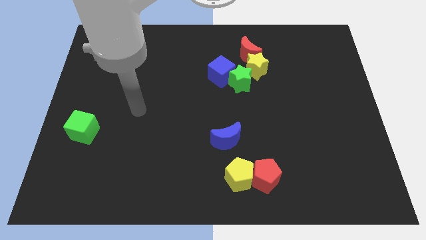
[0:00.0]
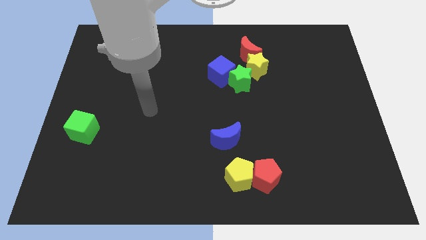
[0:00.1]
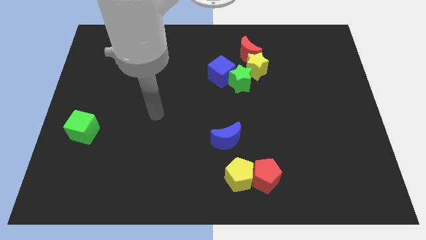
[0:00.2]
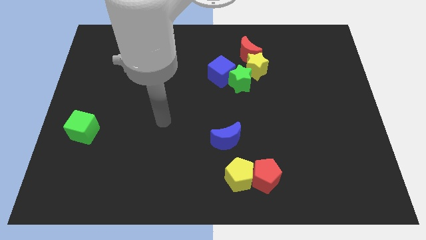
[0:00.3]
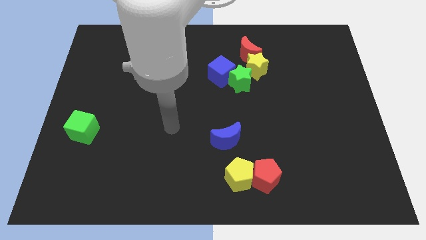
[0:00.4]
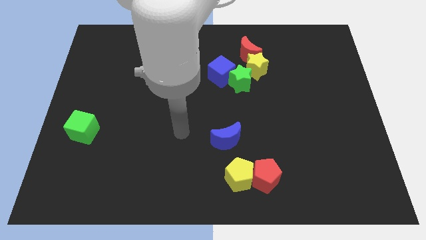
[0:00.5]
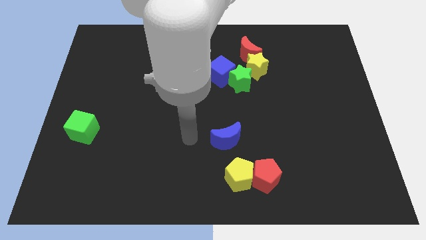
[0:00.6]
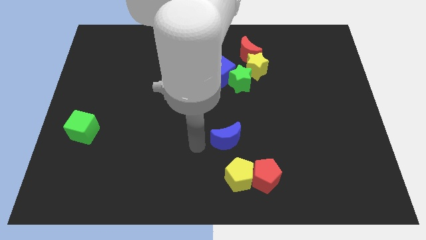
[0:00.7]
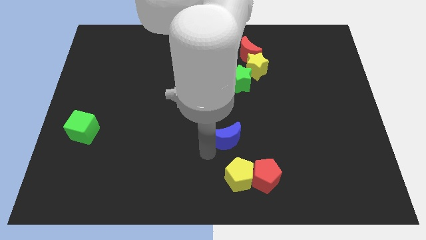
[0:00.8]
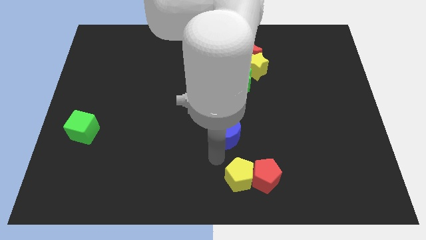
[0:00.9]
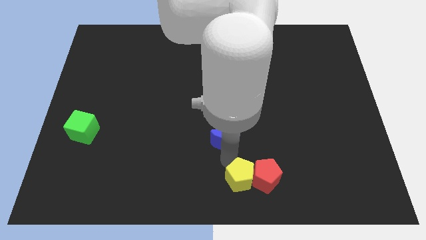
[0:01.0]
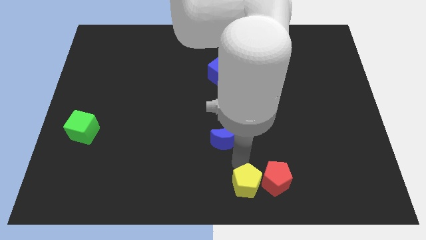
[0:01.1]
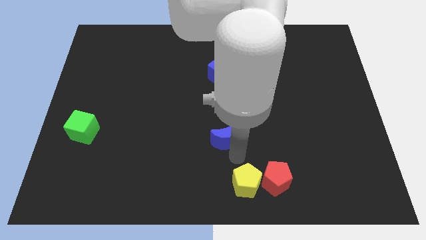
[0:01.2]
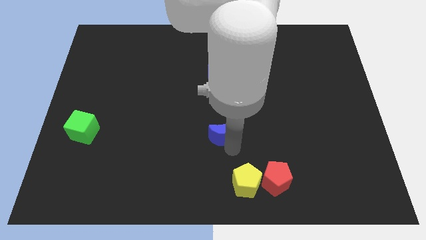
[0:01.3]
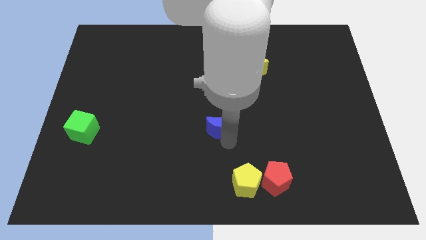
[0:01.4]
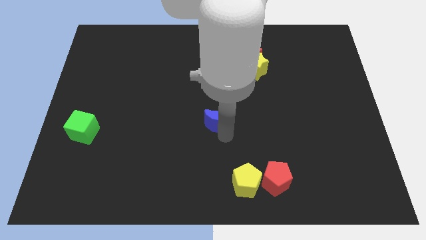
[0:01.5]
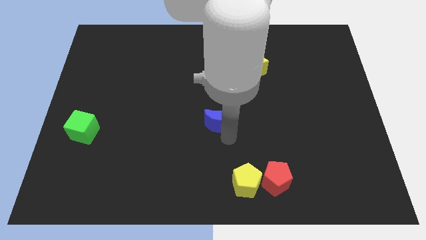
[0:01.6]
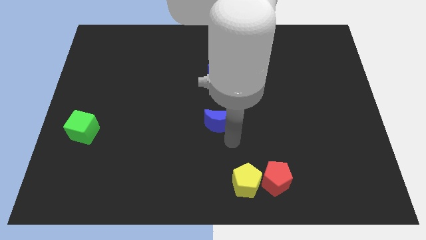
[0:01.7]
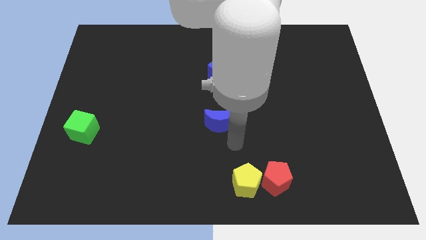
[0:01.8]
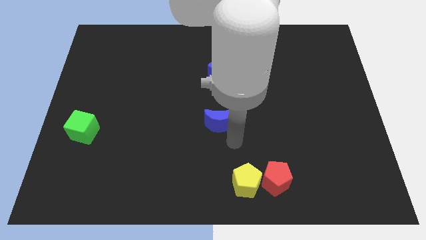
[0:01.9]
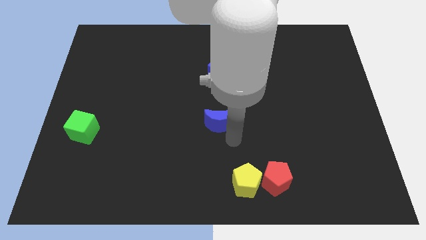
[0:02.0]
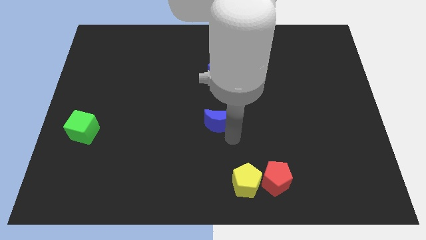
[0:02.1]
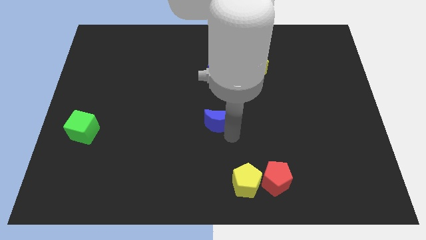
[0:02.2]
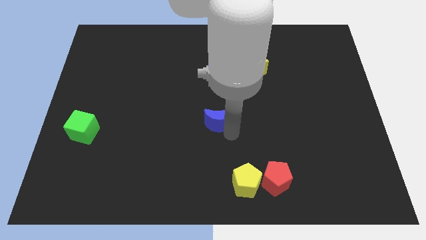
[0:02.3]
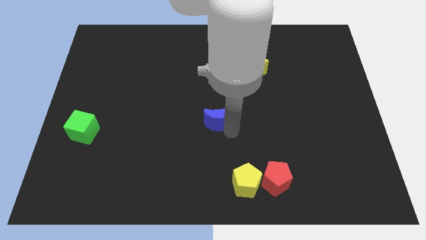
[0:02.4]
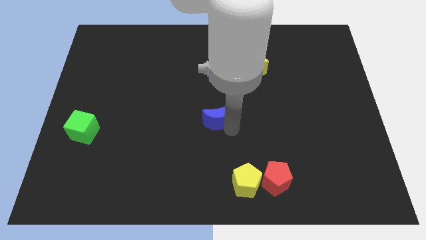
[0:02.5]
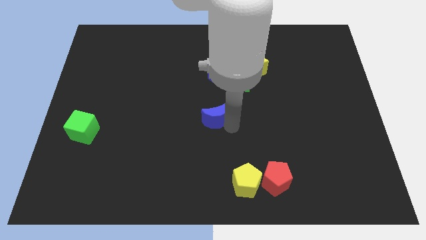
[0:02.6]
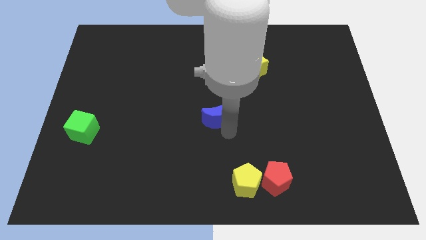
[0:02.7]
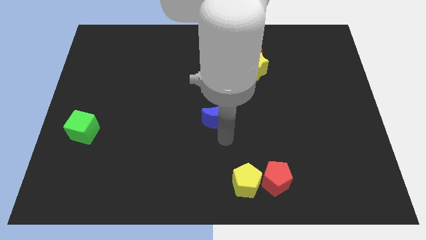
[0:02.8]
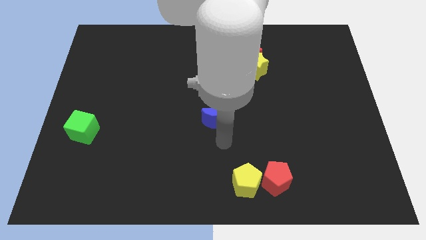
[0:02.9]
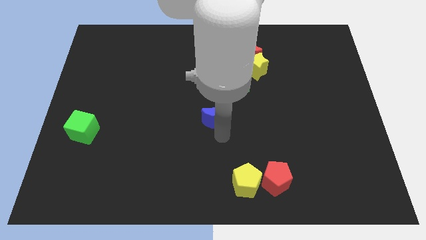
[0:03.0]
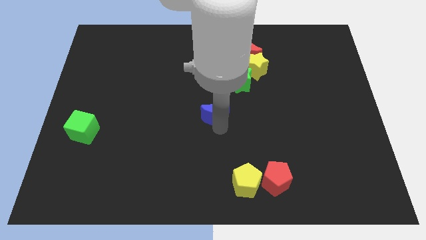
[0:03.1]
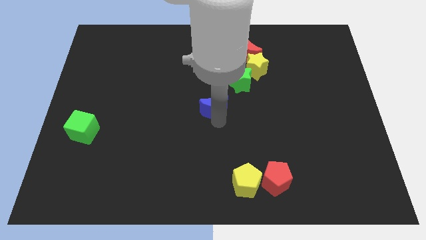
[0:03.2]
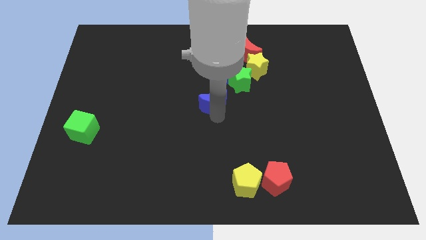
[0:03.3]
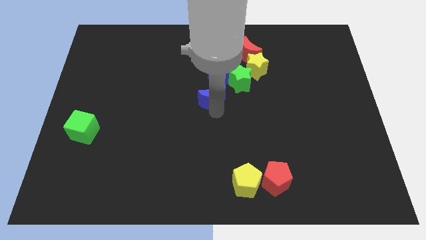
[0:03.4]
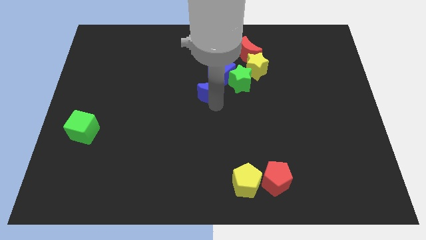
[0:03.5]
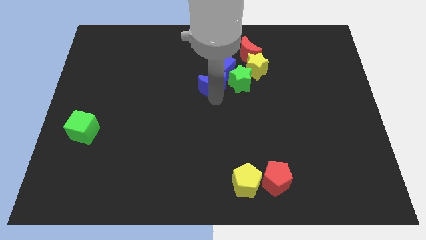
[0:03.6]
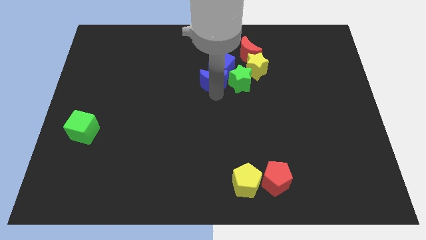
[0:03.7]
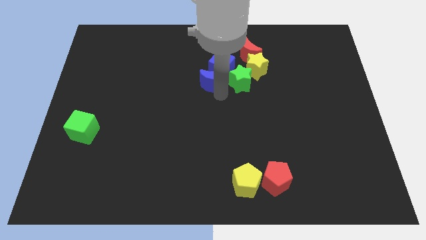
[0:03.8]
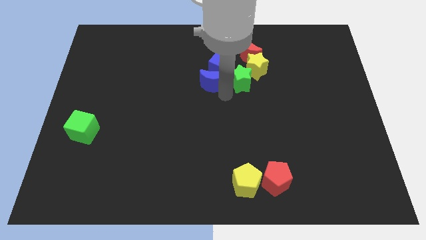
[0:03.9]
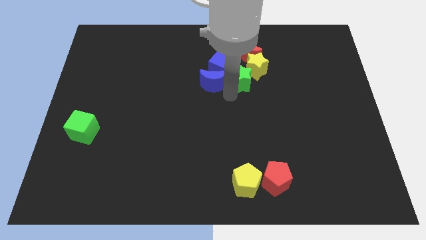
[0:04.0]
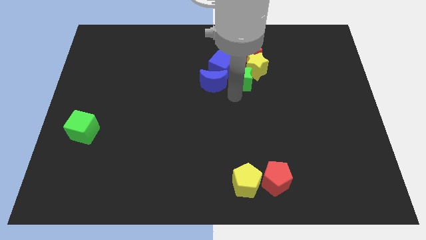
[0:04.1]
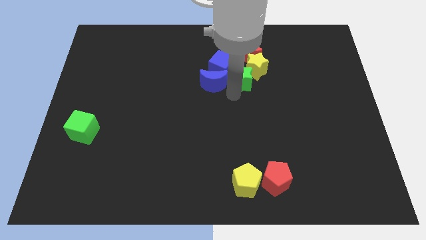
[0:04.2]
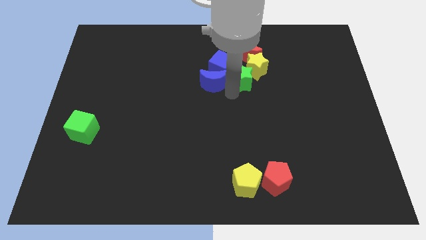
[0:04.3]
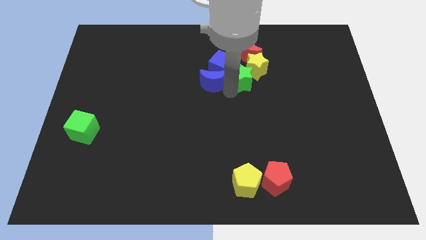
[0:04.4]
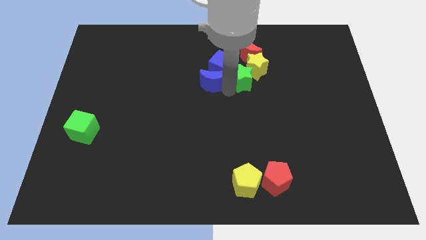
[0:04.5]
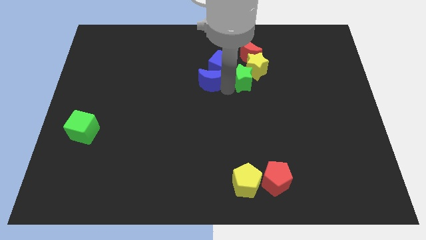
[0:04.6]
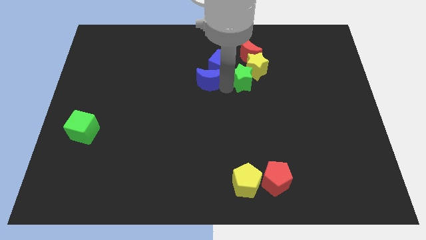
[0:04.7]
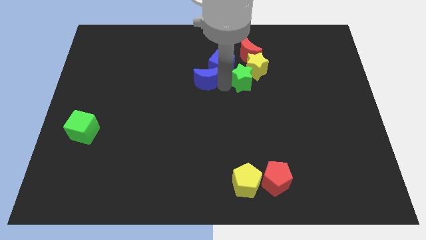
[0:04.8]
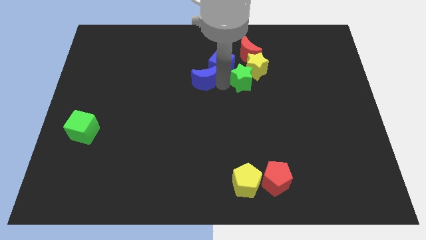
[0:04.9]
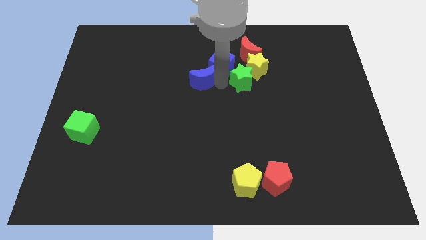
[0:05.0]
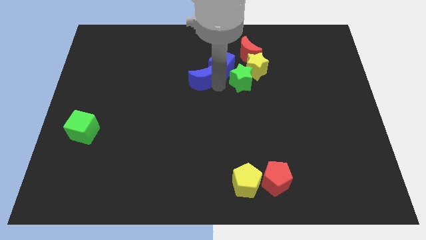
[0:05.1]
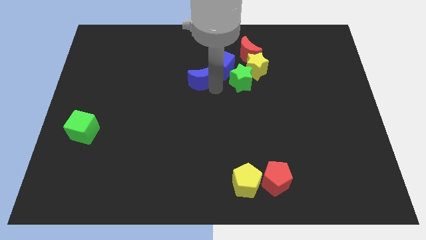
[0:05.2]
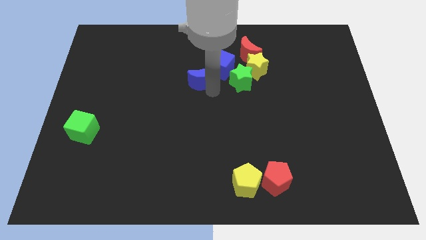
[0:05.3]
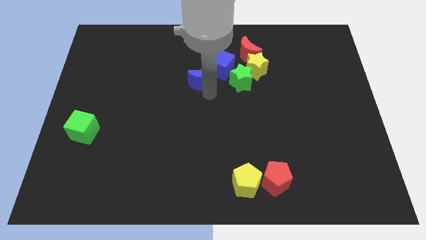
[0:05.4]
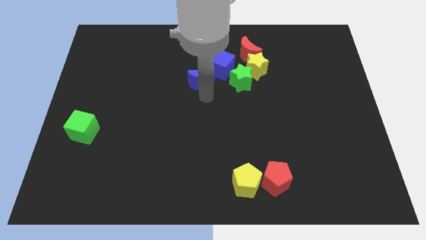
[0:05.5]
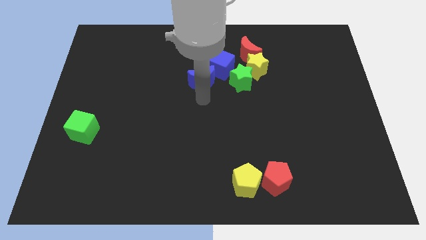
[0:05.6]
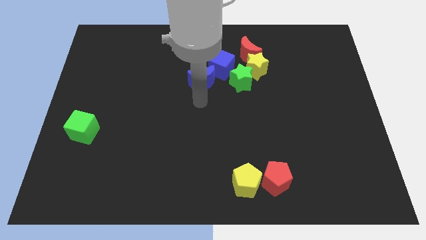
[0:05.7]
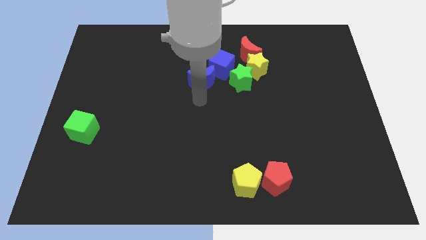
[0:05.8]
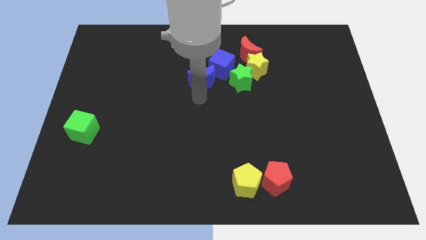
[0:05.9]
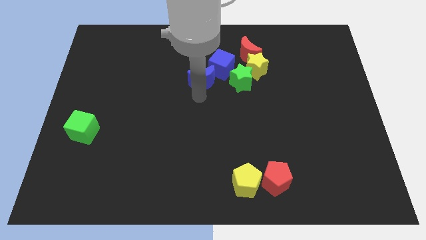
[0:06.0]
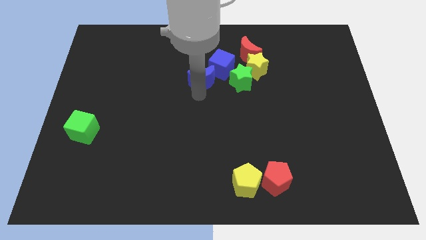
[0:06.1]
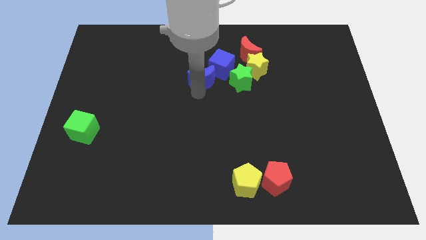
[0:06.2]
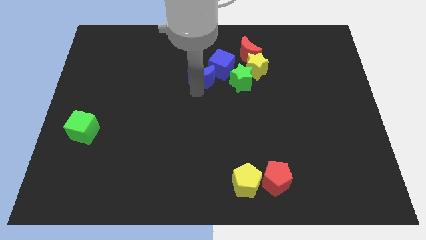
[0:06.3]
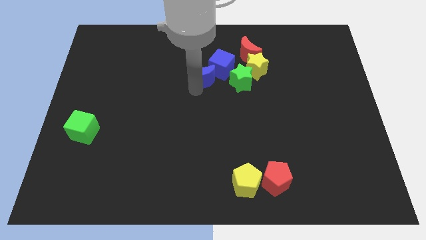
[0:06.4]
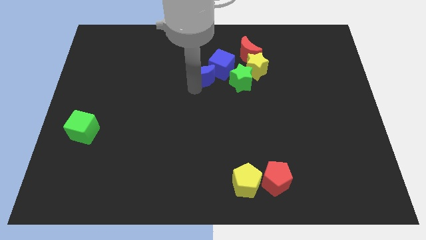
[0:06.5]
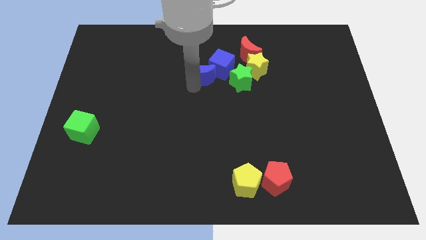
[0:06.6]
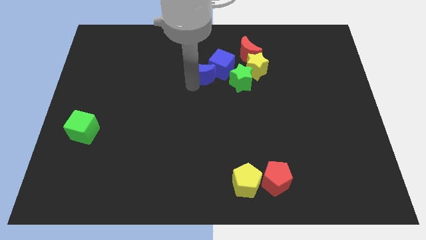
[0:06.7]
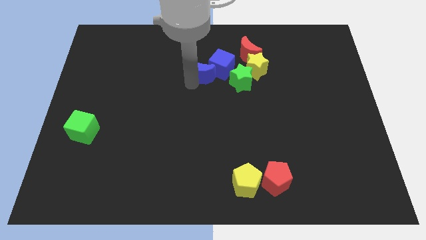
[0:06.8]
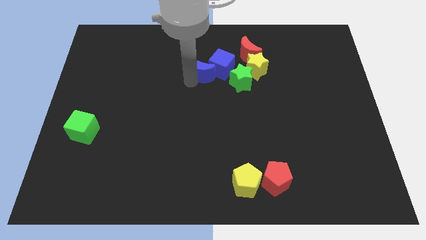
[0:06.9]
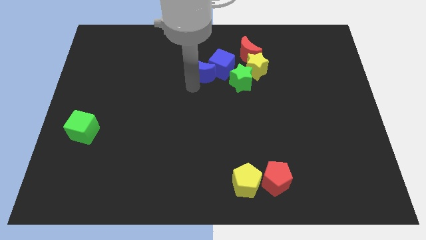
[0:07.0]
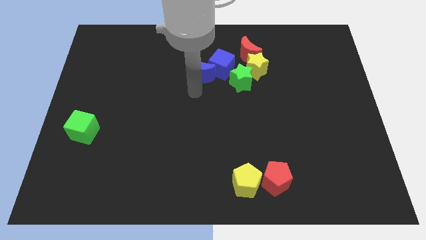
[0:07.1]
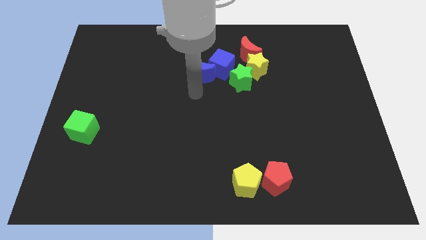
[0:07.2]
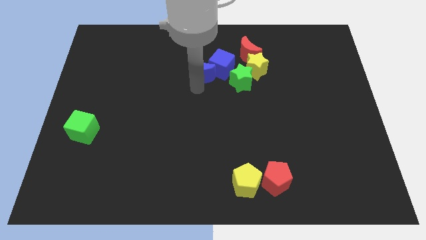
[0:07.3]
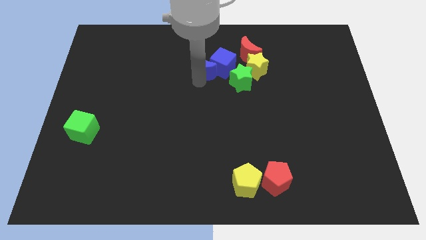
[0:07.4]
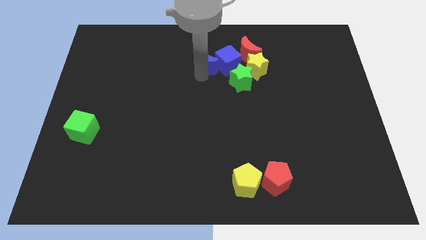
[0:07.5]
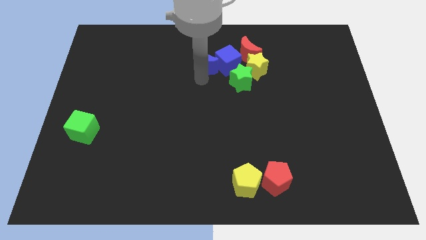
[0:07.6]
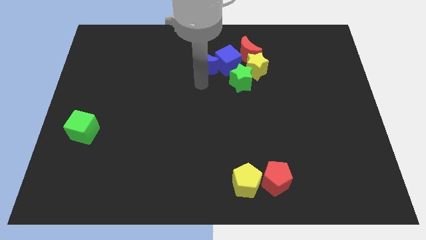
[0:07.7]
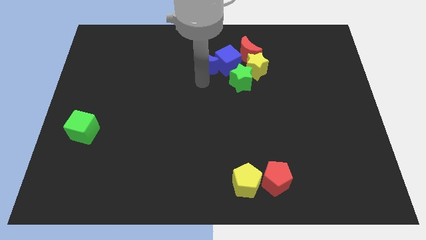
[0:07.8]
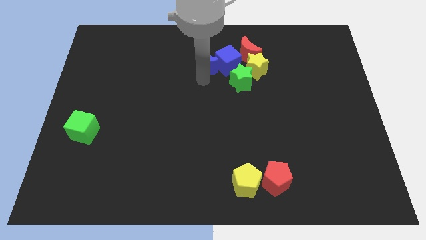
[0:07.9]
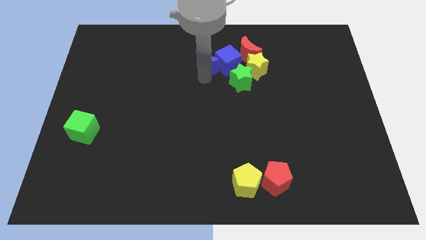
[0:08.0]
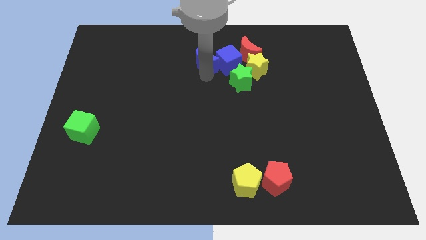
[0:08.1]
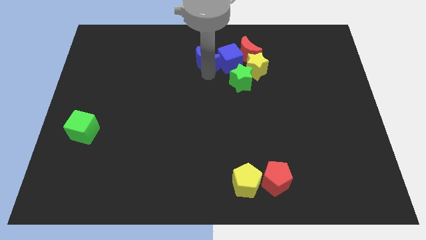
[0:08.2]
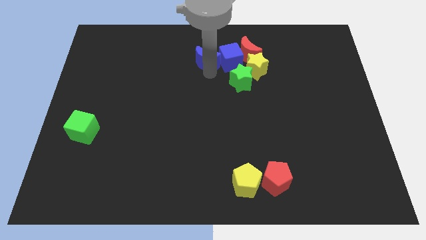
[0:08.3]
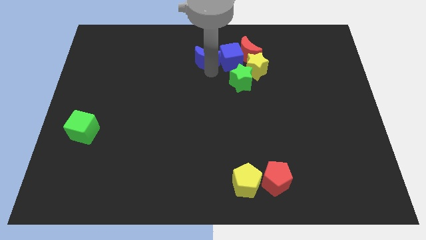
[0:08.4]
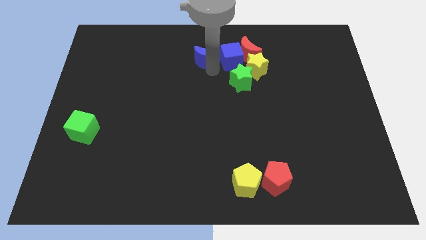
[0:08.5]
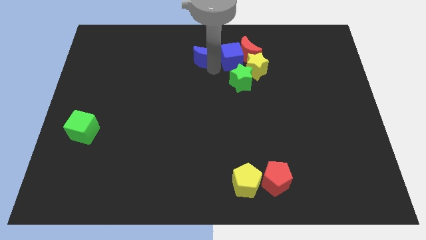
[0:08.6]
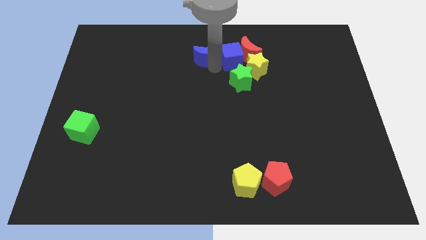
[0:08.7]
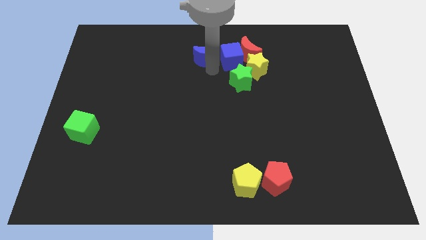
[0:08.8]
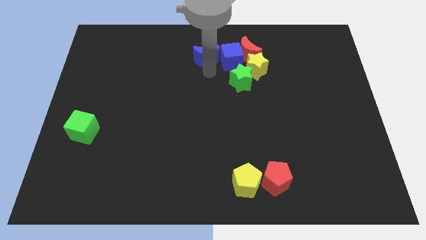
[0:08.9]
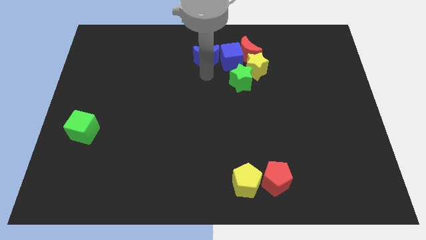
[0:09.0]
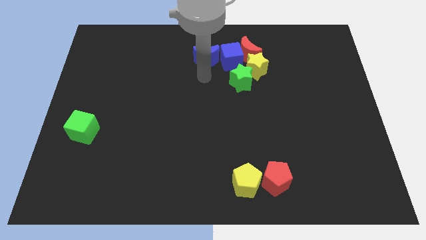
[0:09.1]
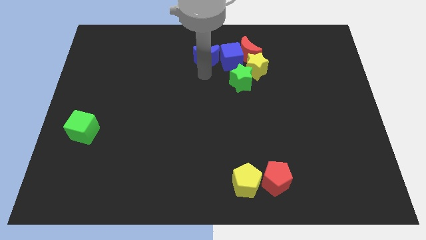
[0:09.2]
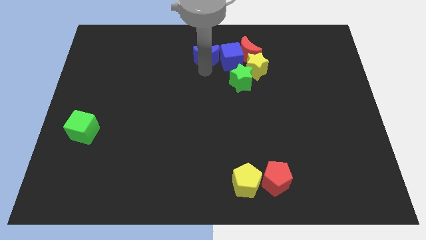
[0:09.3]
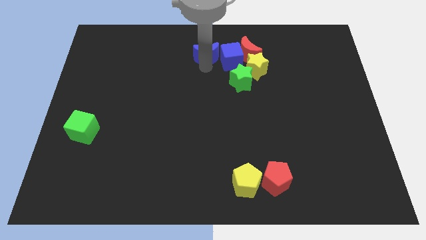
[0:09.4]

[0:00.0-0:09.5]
slide the blue moon to the top
